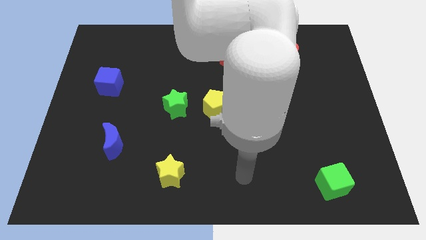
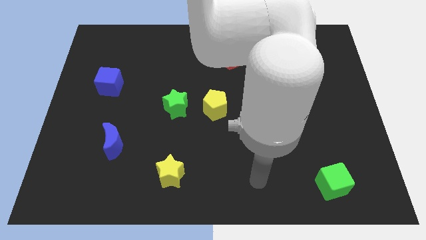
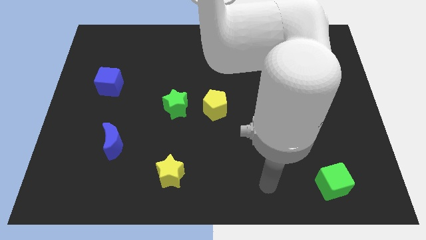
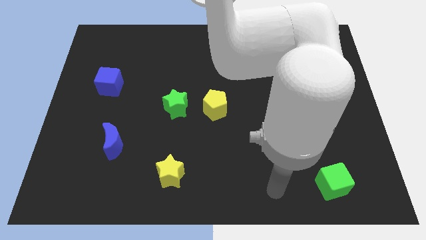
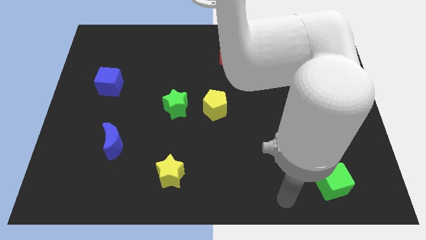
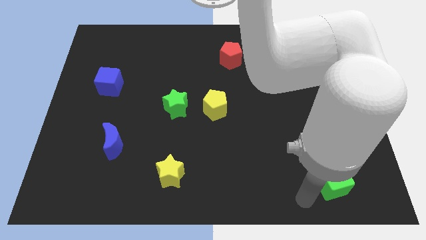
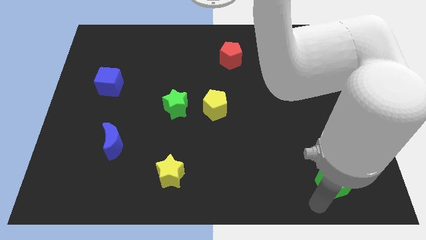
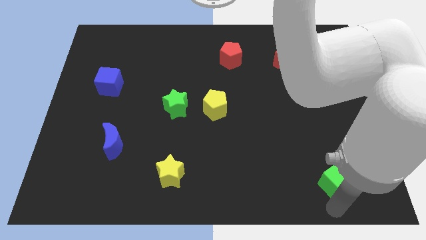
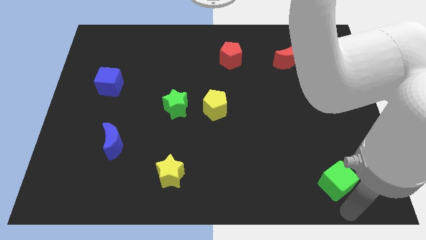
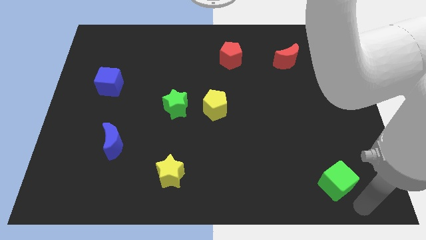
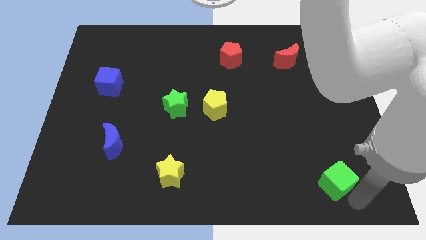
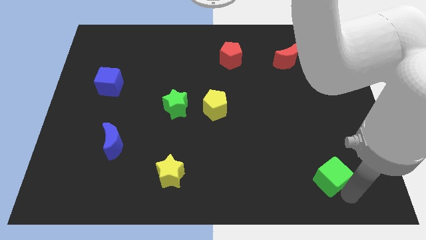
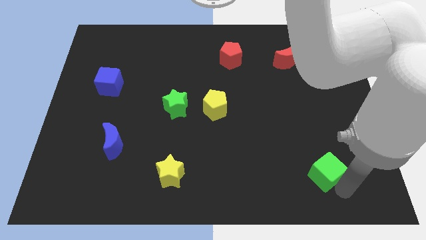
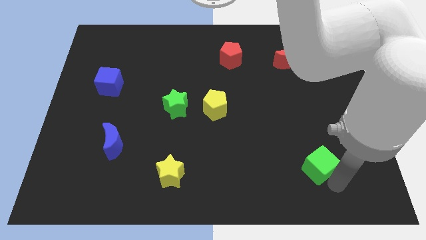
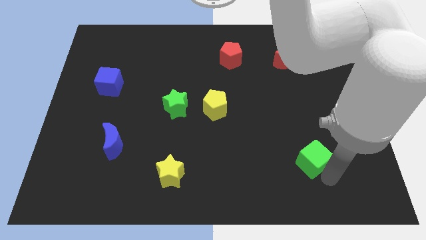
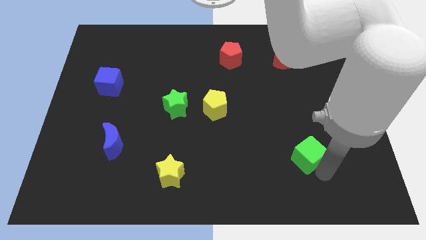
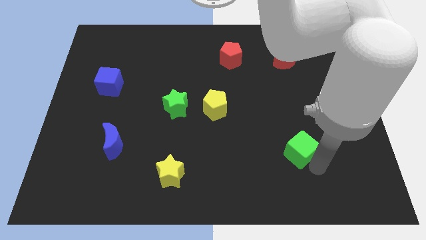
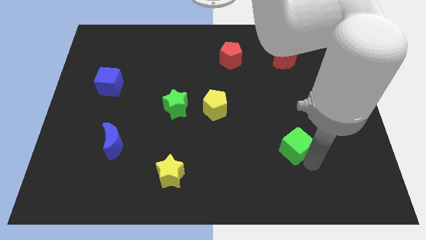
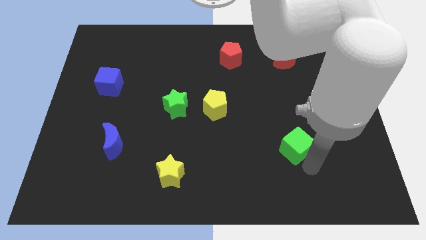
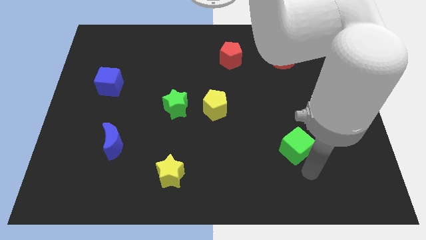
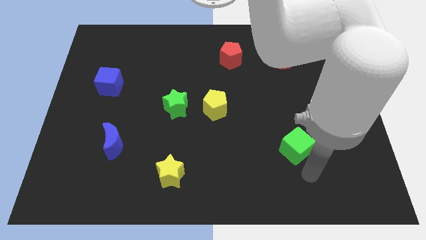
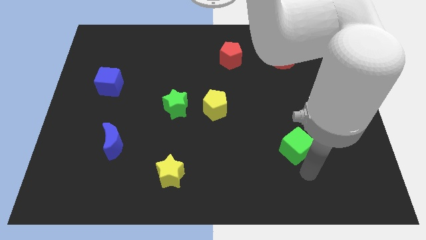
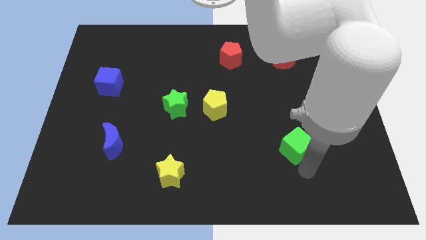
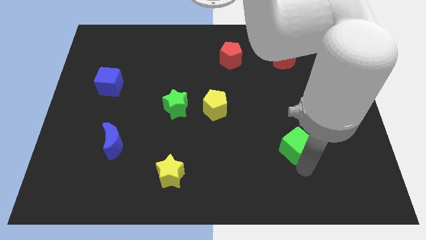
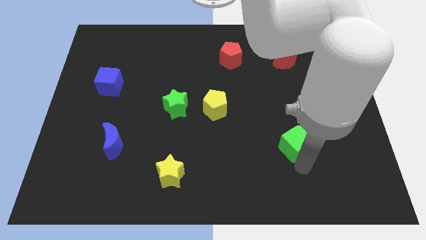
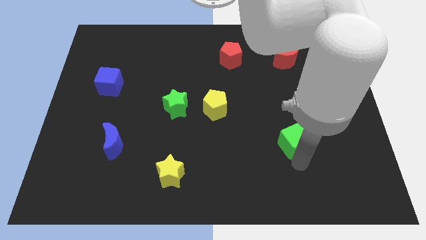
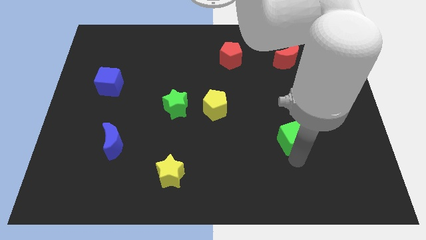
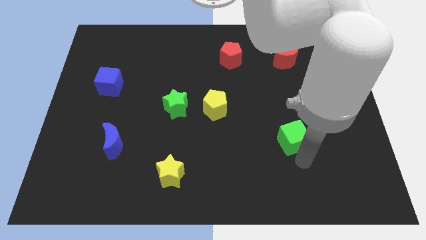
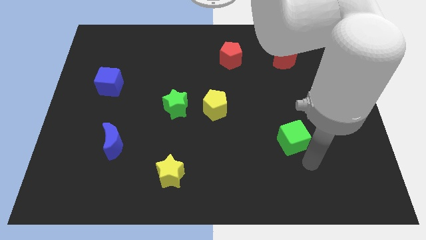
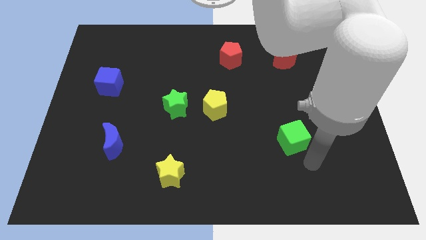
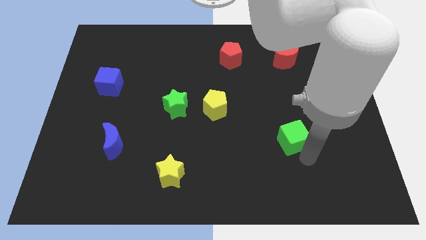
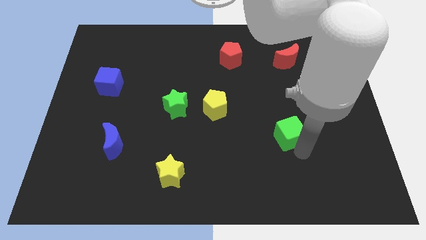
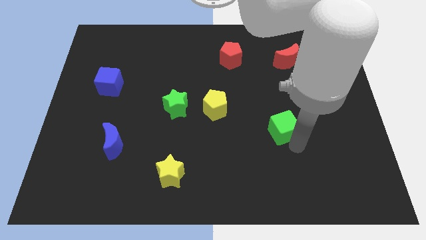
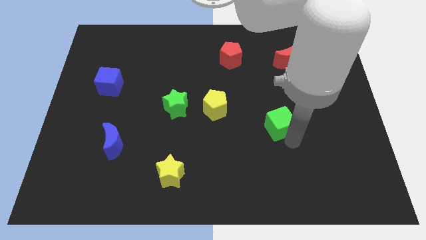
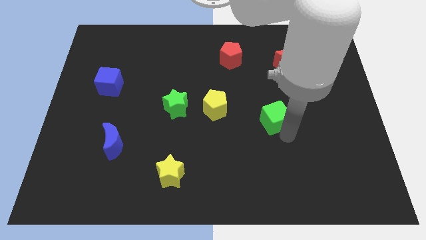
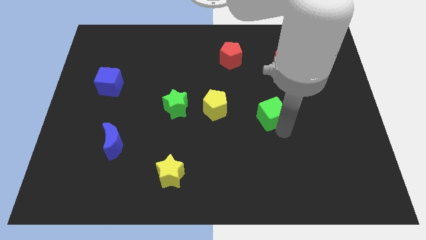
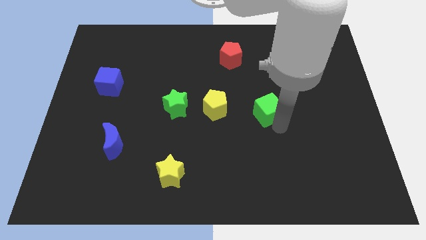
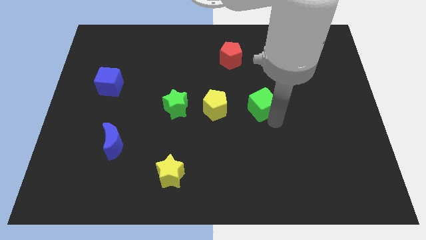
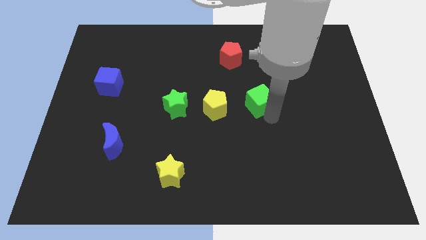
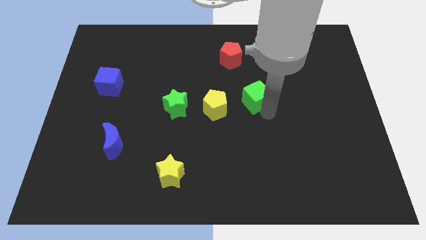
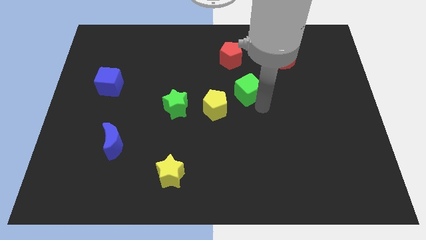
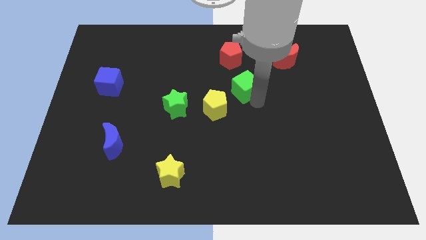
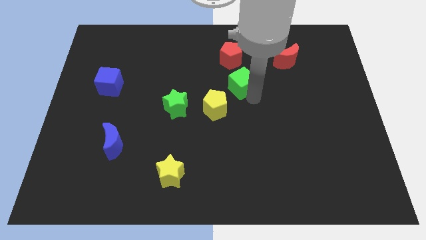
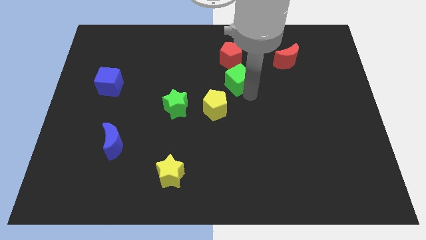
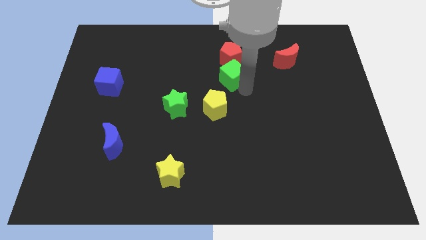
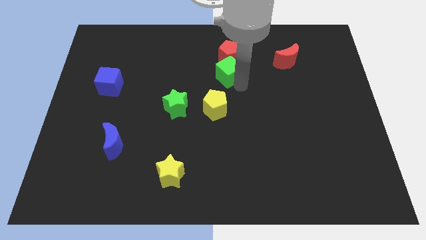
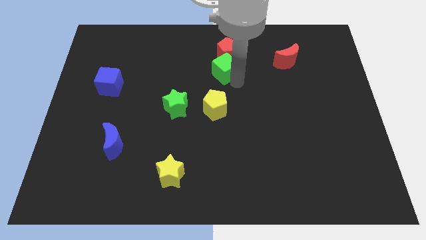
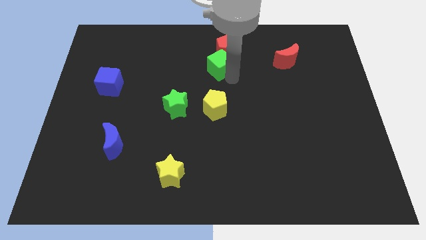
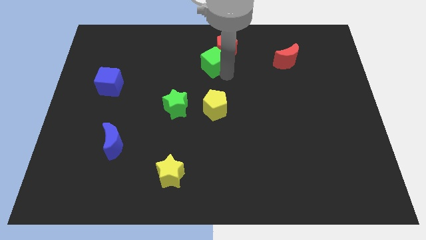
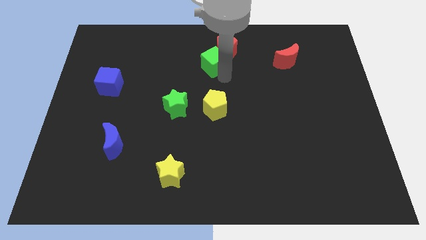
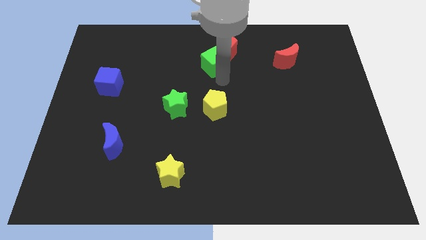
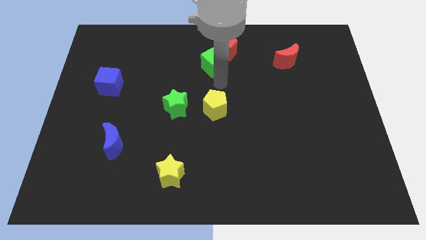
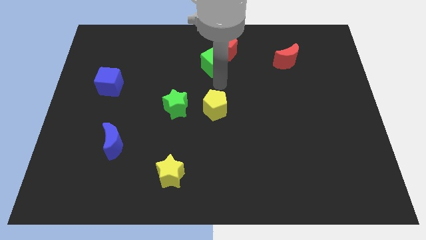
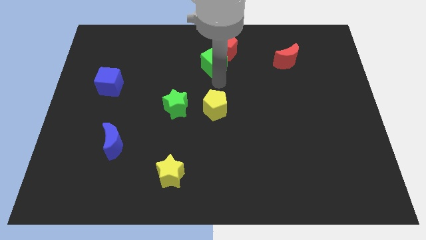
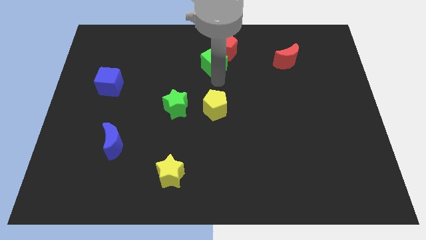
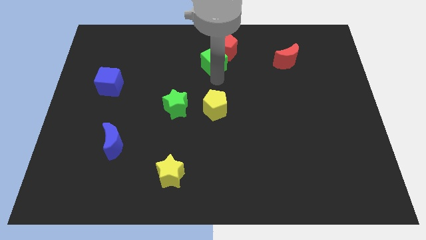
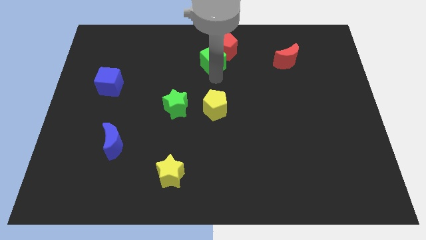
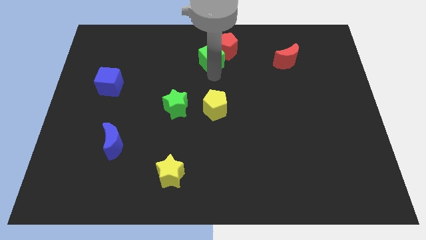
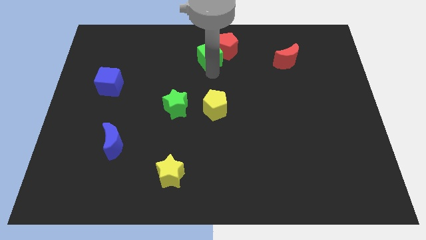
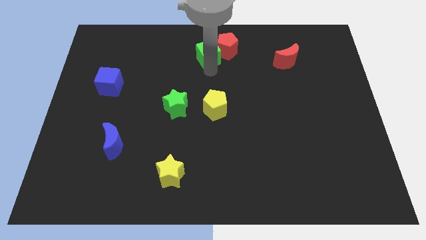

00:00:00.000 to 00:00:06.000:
slide the green cube to the towards your base

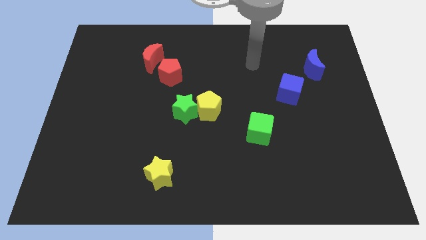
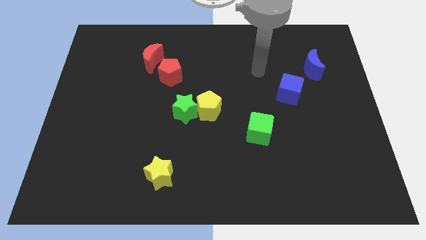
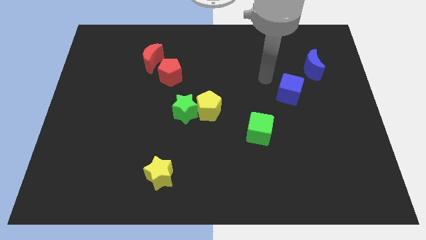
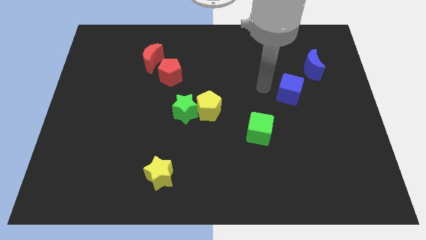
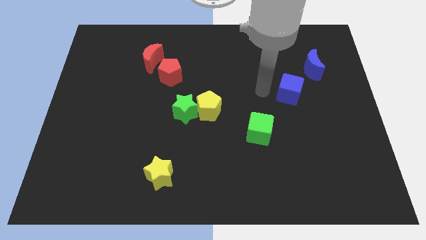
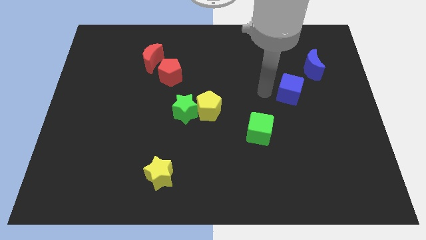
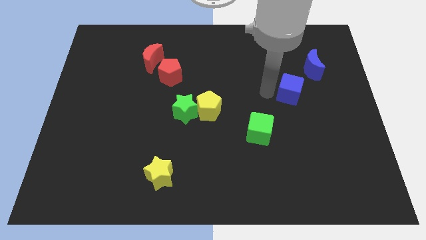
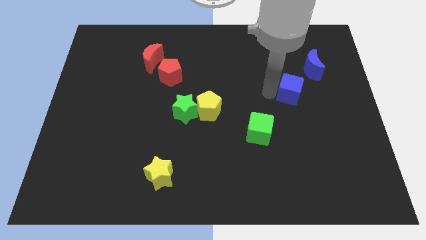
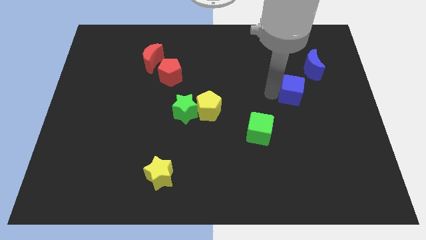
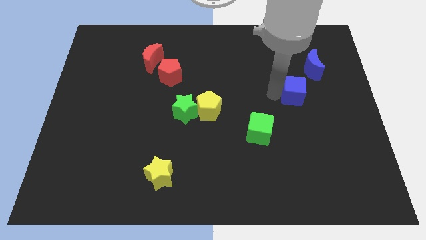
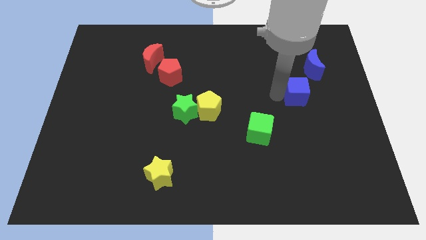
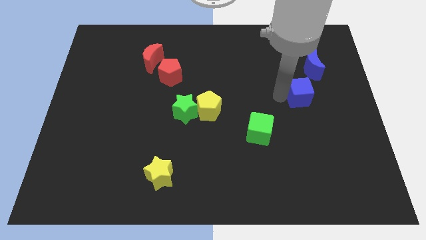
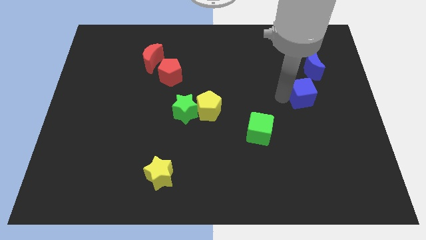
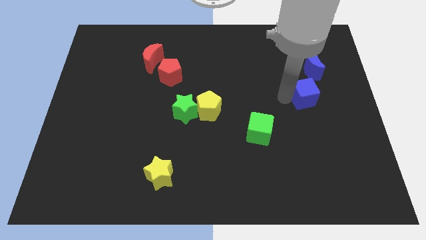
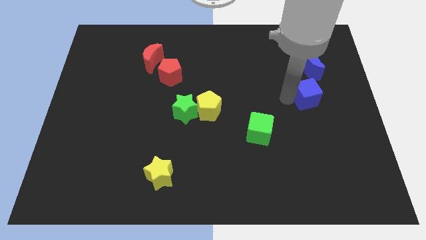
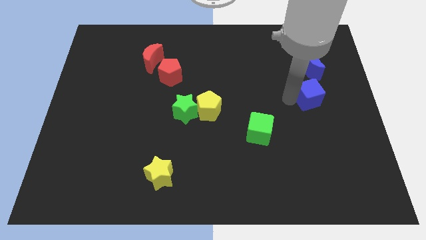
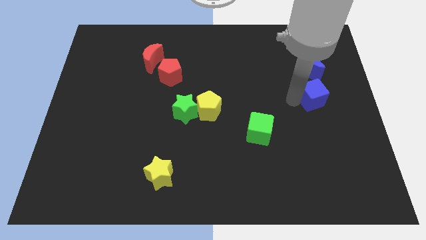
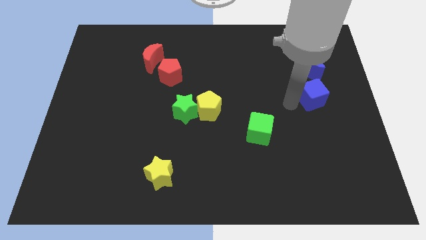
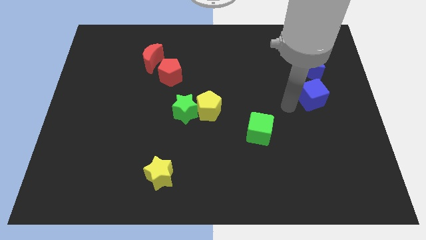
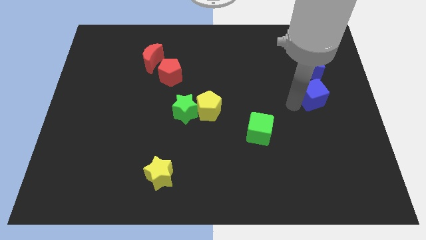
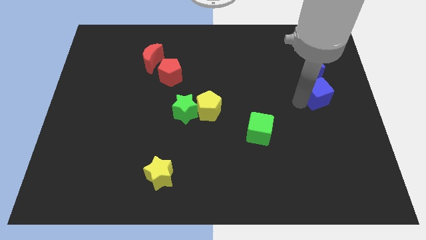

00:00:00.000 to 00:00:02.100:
put the blue cube to the center right
